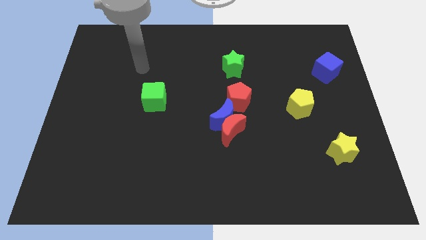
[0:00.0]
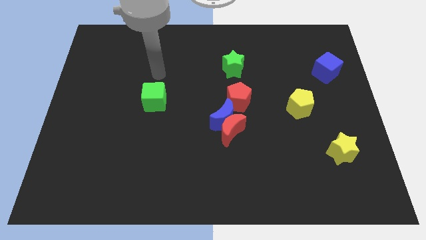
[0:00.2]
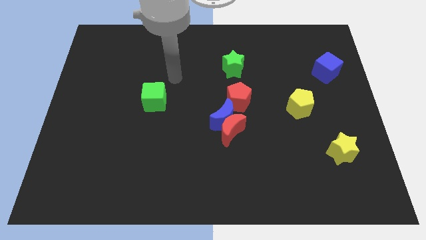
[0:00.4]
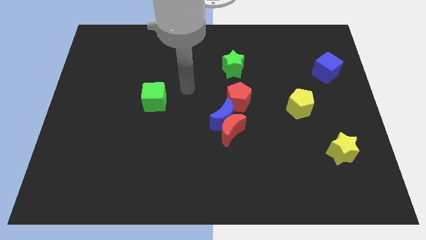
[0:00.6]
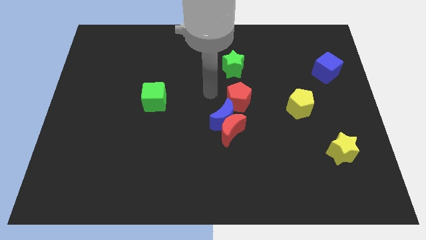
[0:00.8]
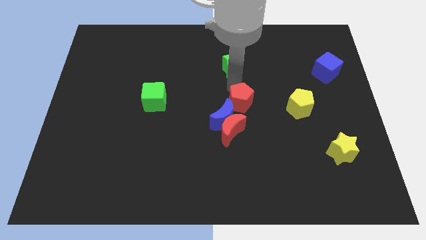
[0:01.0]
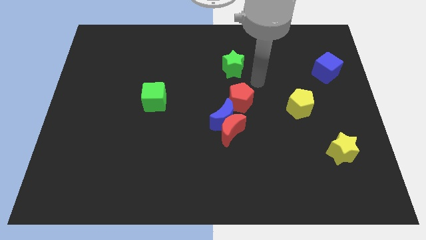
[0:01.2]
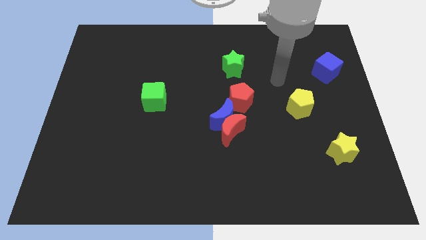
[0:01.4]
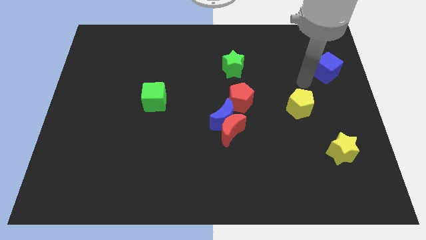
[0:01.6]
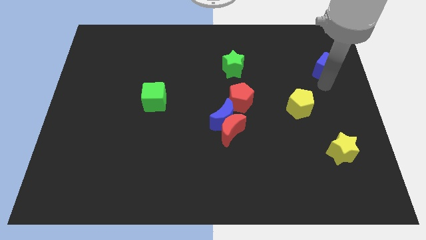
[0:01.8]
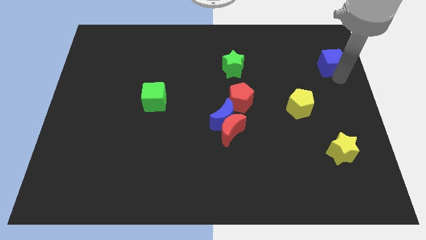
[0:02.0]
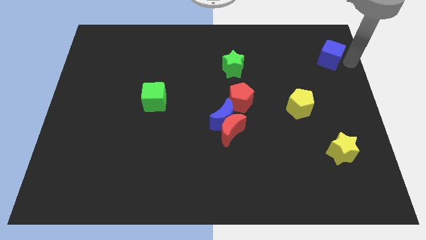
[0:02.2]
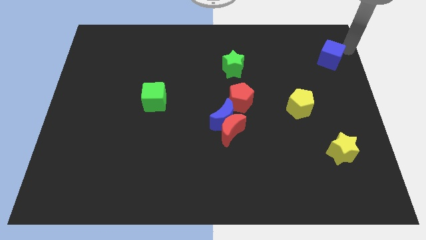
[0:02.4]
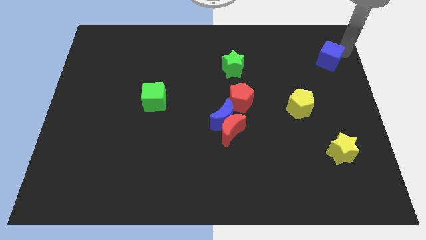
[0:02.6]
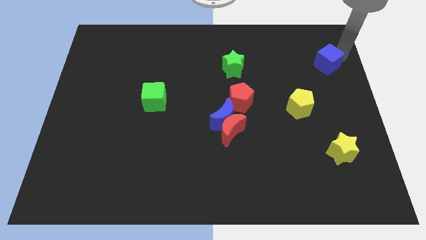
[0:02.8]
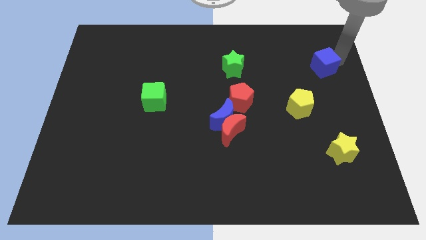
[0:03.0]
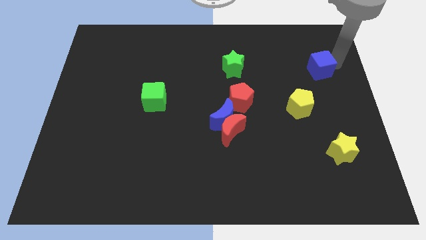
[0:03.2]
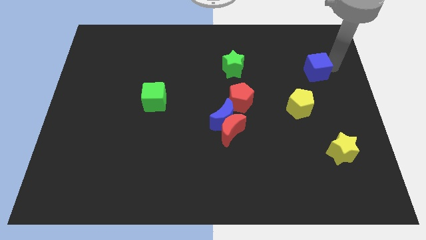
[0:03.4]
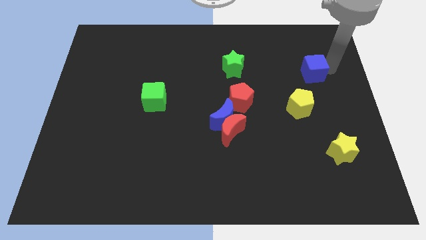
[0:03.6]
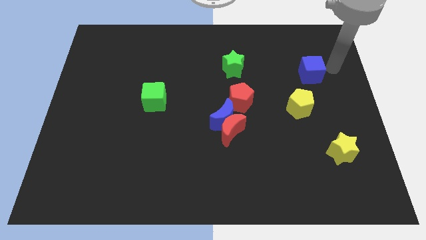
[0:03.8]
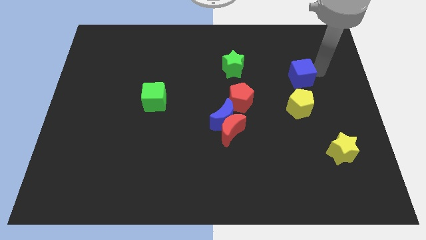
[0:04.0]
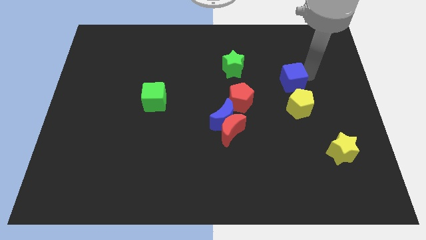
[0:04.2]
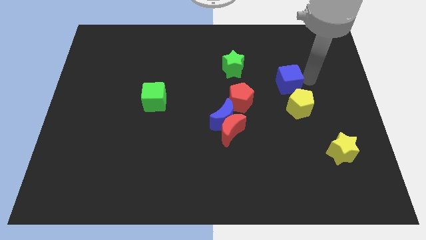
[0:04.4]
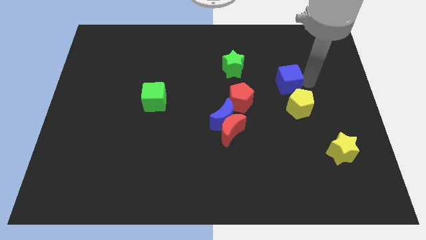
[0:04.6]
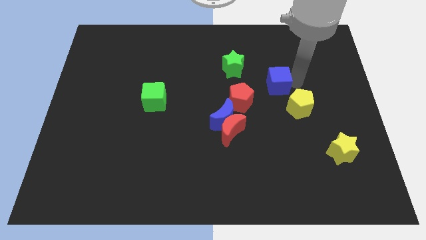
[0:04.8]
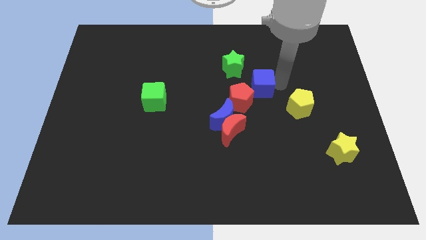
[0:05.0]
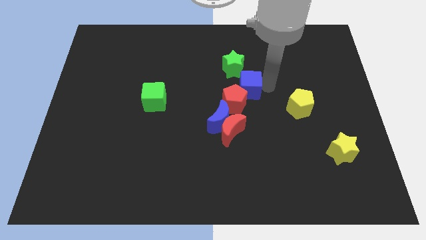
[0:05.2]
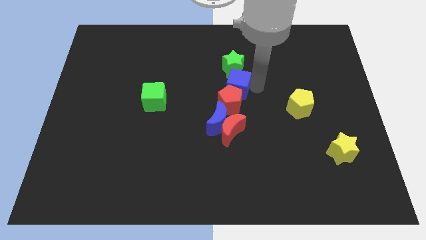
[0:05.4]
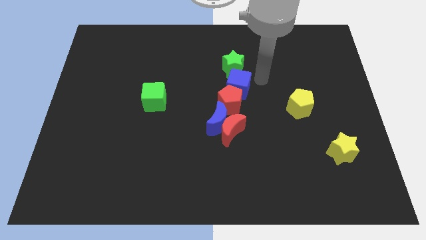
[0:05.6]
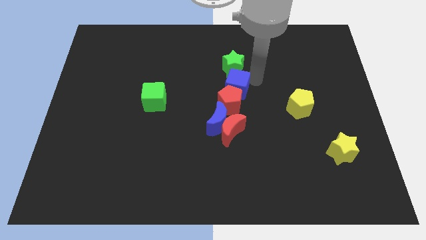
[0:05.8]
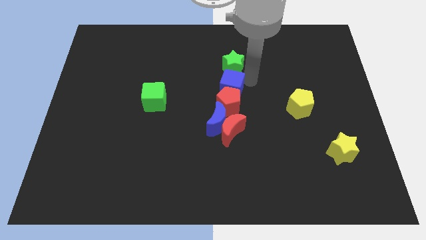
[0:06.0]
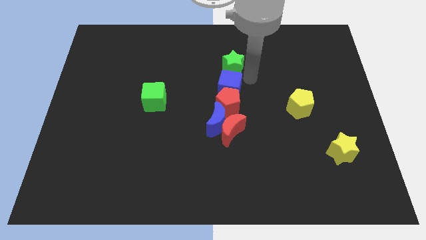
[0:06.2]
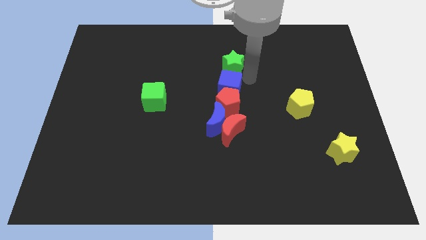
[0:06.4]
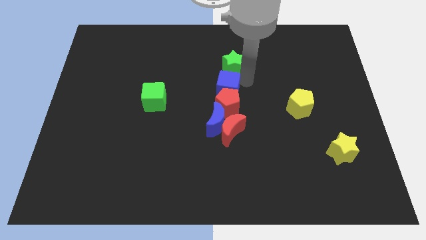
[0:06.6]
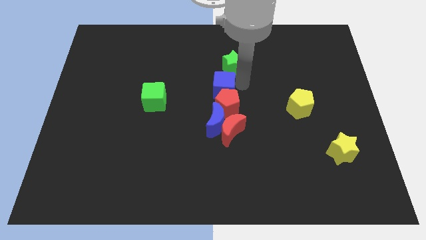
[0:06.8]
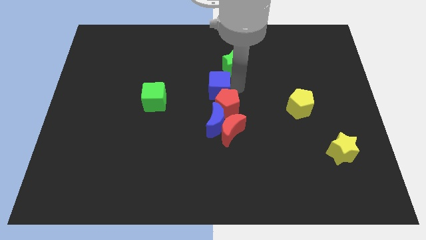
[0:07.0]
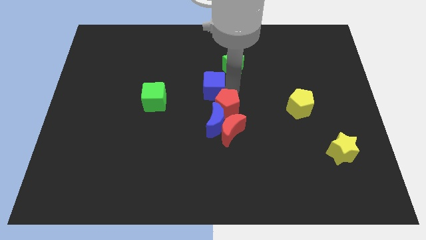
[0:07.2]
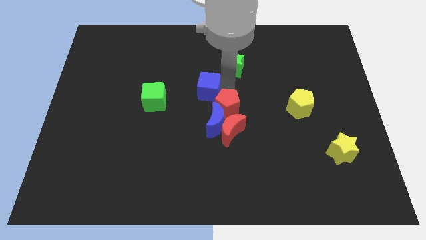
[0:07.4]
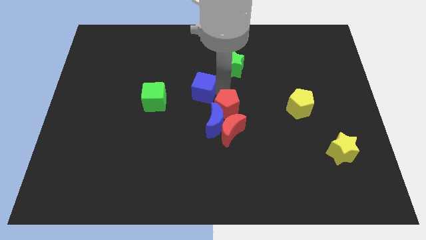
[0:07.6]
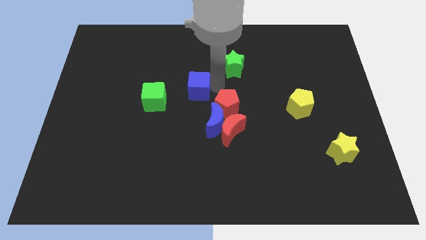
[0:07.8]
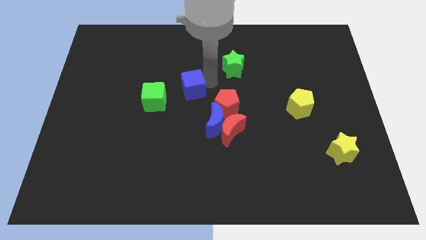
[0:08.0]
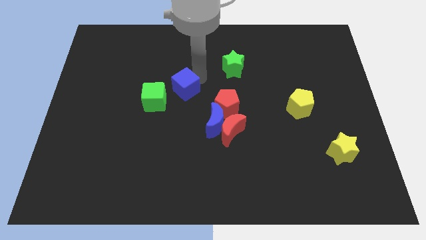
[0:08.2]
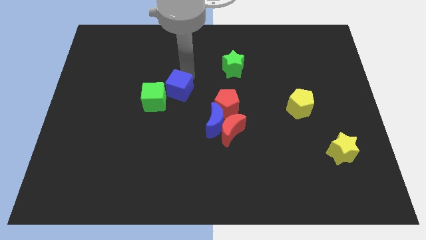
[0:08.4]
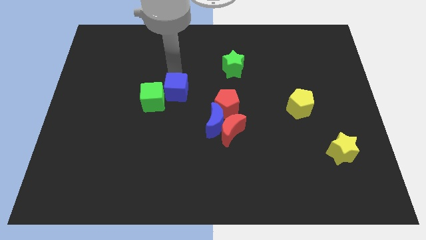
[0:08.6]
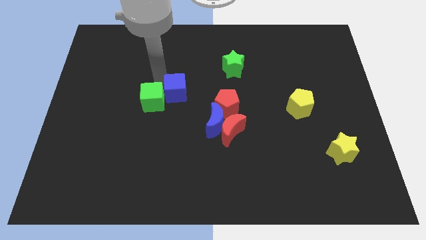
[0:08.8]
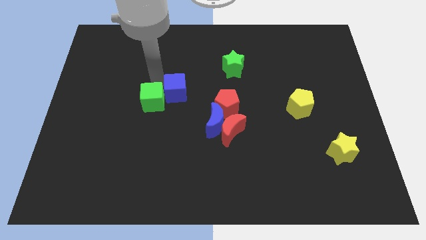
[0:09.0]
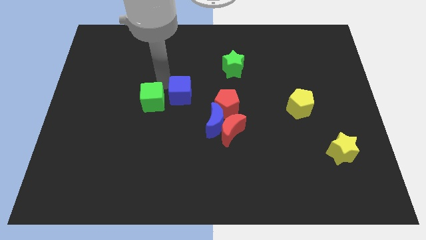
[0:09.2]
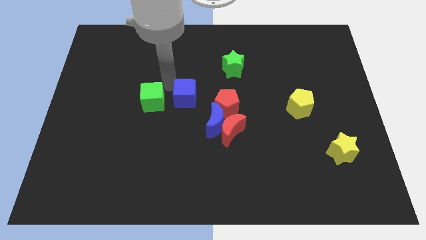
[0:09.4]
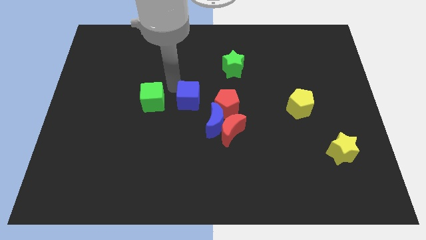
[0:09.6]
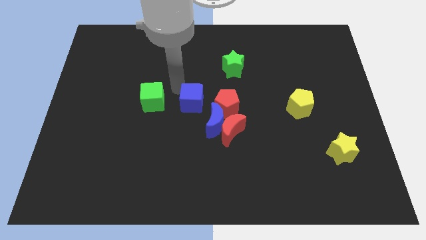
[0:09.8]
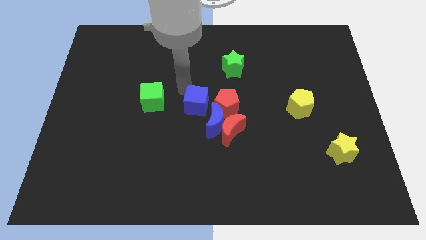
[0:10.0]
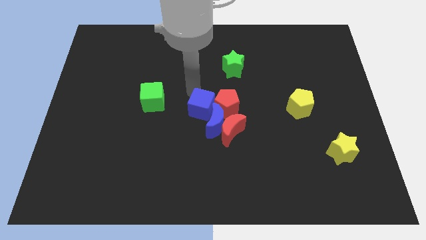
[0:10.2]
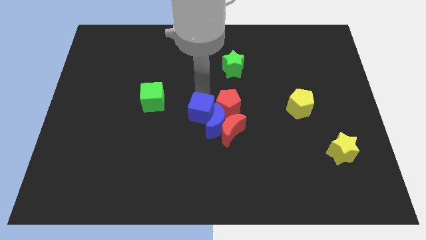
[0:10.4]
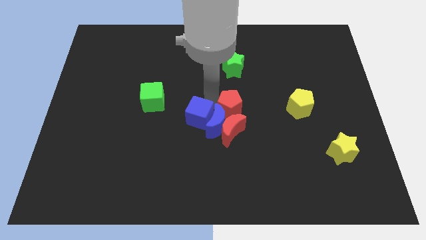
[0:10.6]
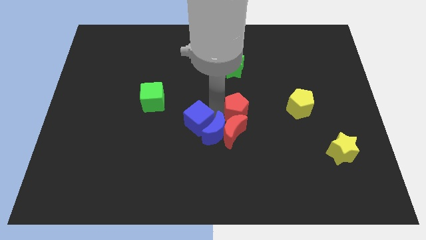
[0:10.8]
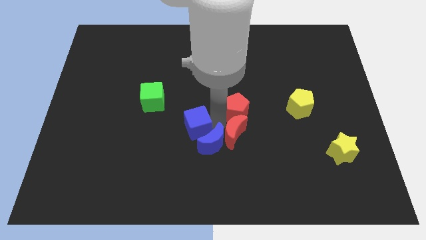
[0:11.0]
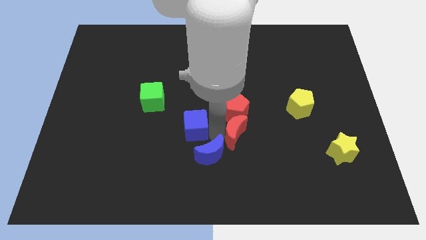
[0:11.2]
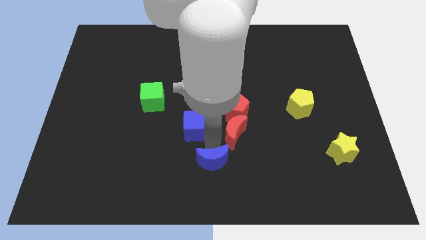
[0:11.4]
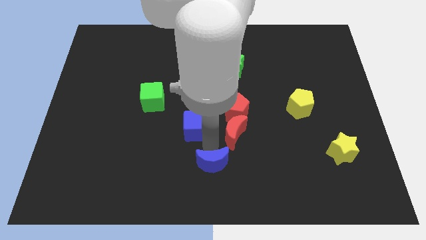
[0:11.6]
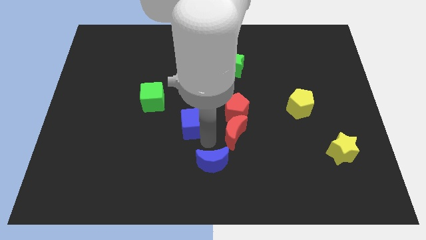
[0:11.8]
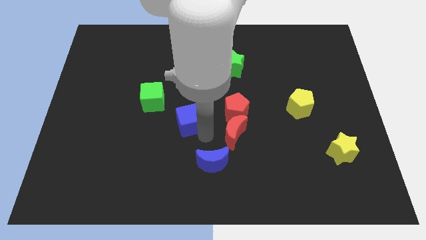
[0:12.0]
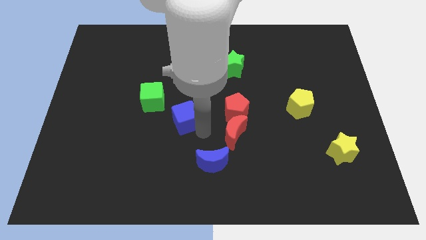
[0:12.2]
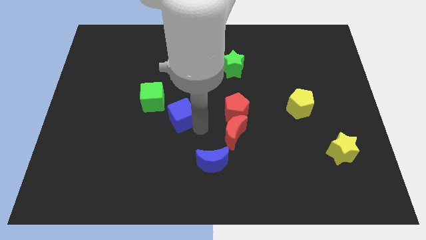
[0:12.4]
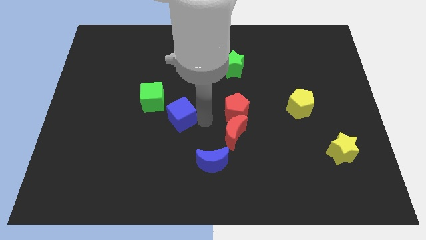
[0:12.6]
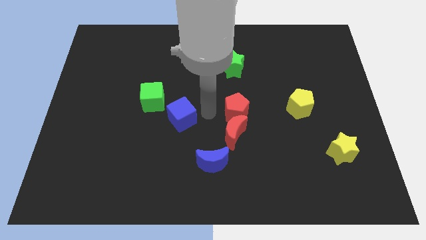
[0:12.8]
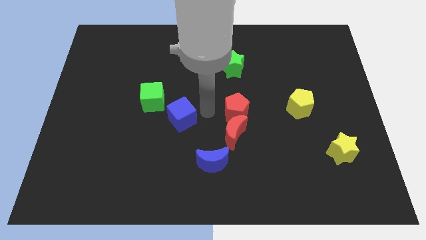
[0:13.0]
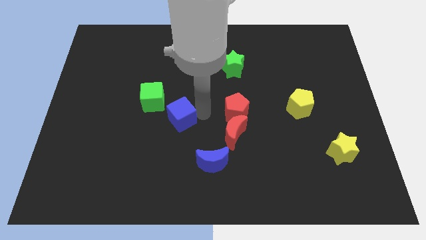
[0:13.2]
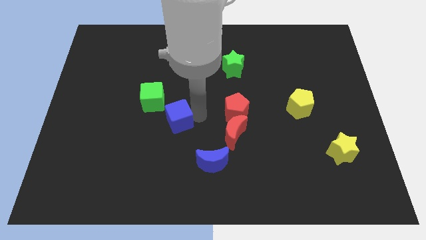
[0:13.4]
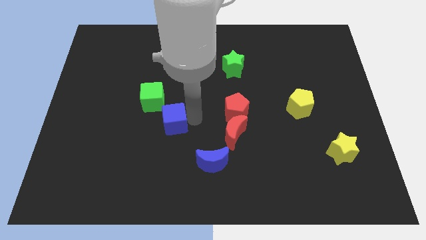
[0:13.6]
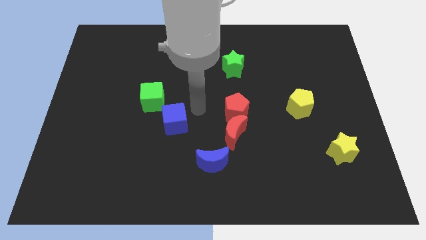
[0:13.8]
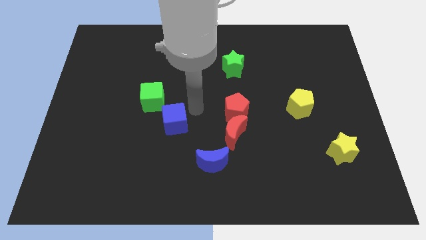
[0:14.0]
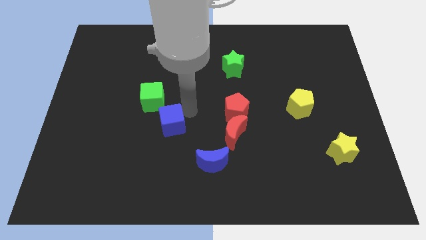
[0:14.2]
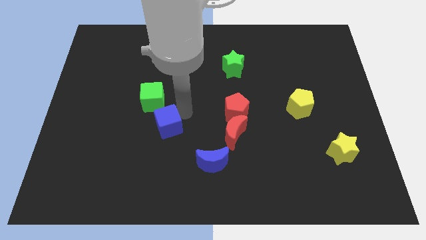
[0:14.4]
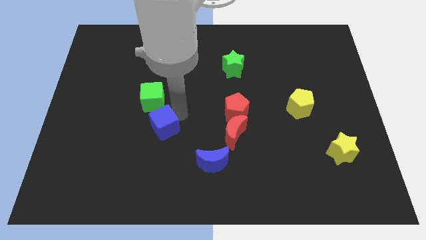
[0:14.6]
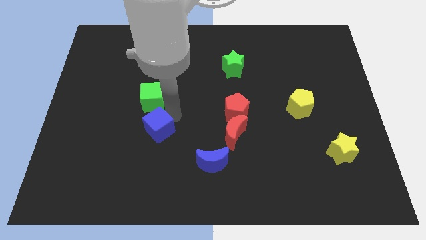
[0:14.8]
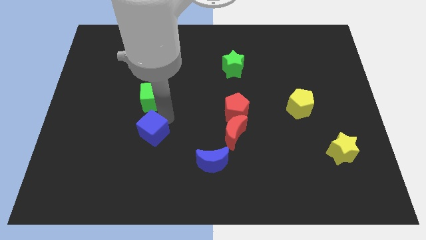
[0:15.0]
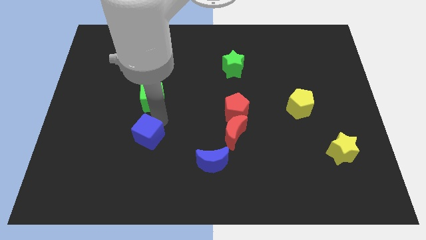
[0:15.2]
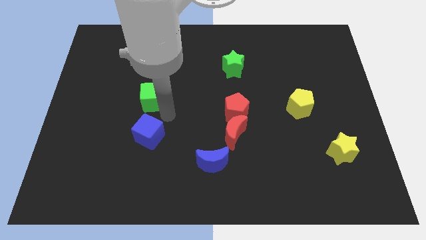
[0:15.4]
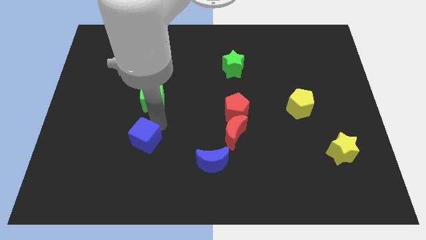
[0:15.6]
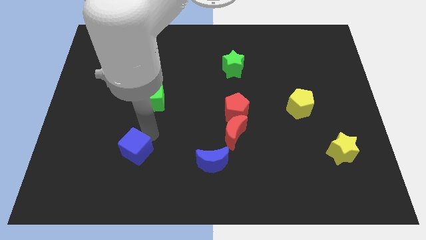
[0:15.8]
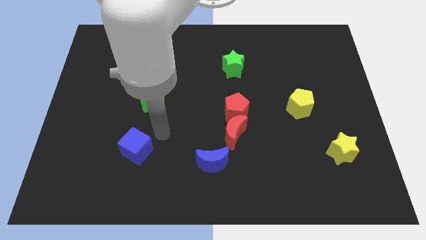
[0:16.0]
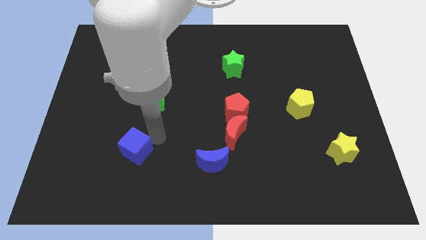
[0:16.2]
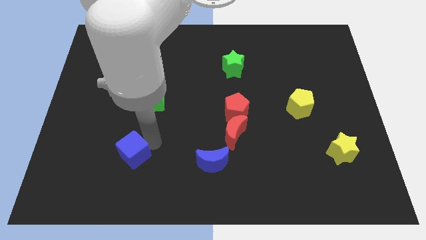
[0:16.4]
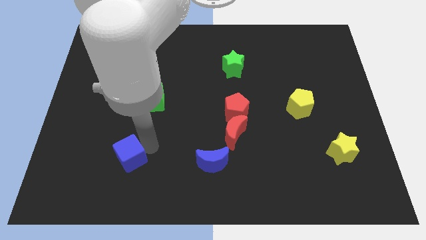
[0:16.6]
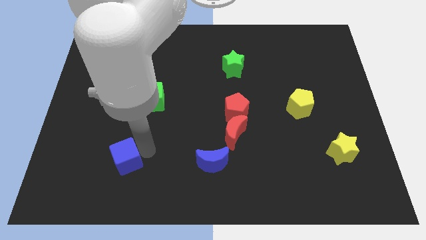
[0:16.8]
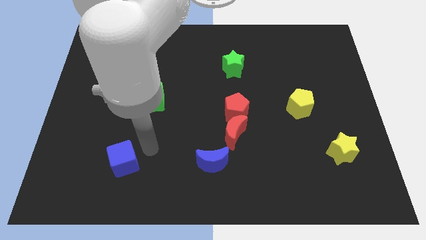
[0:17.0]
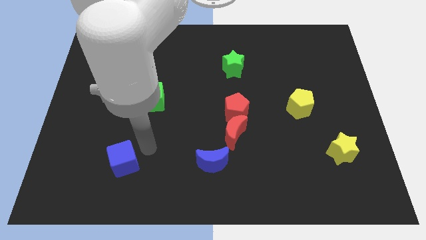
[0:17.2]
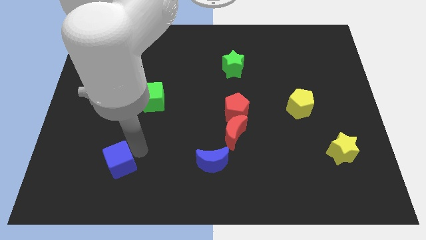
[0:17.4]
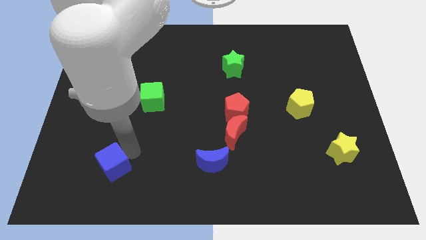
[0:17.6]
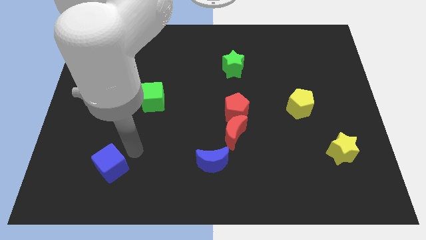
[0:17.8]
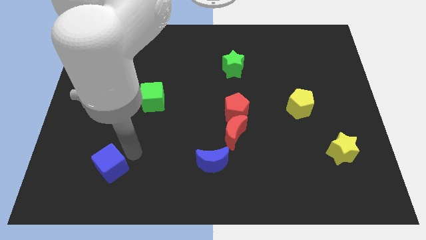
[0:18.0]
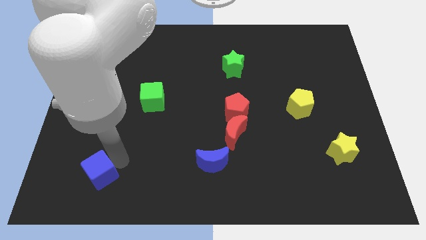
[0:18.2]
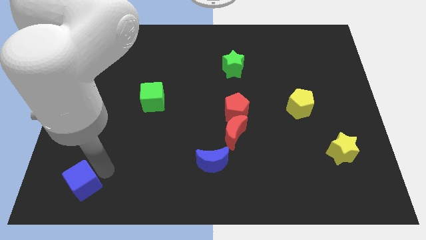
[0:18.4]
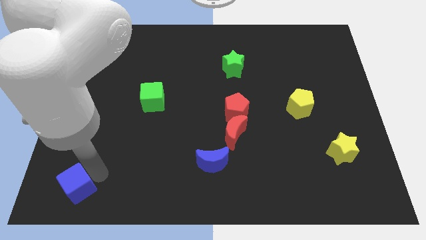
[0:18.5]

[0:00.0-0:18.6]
move the blue cube to the lower left corner
